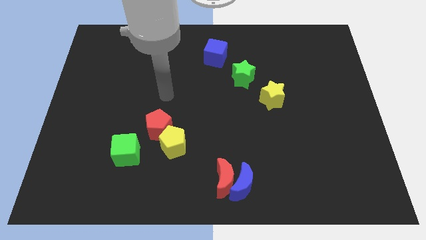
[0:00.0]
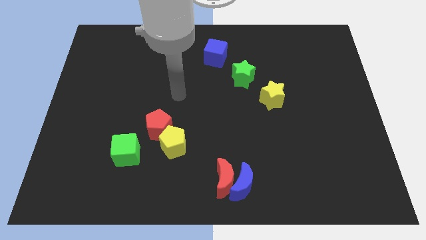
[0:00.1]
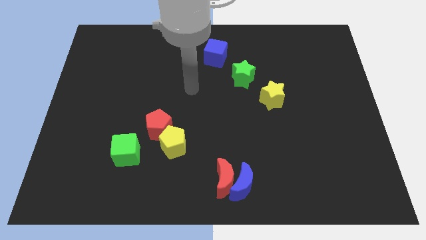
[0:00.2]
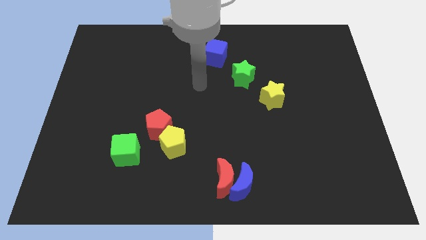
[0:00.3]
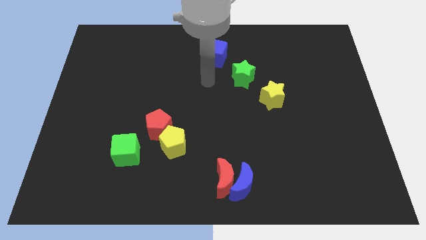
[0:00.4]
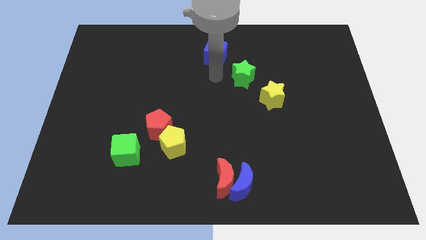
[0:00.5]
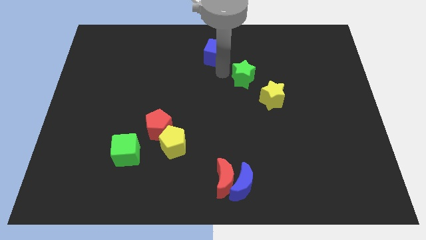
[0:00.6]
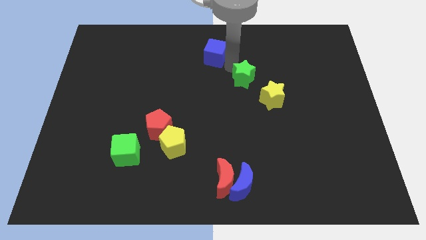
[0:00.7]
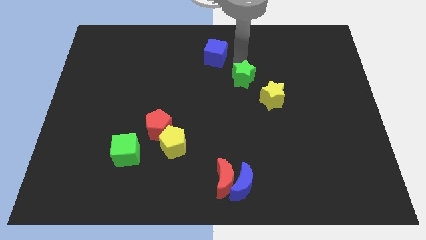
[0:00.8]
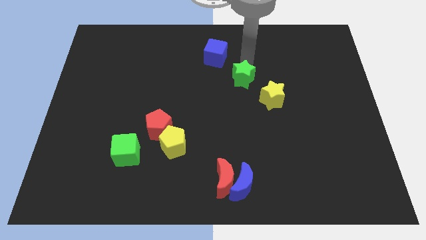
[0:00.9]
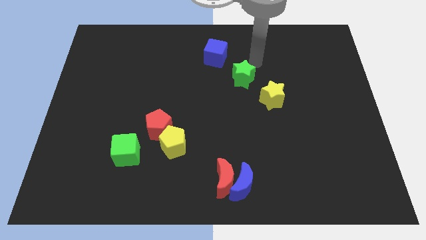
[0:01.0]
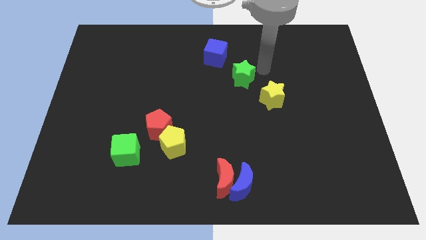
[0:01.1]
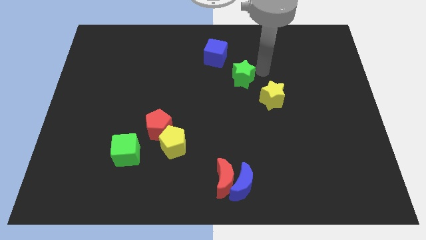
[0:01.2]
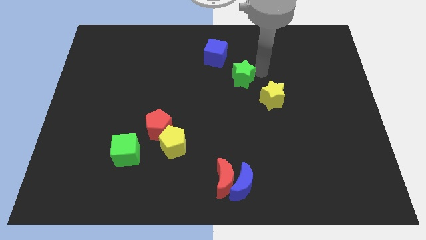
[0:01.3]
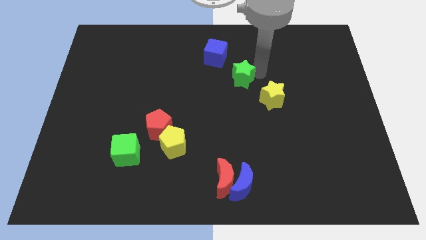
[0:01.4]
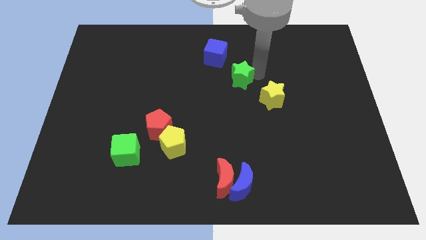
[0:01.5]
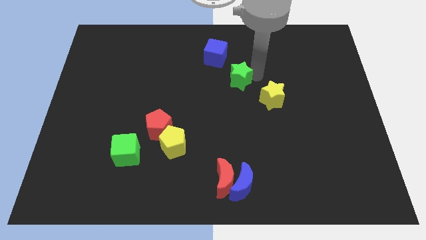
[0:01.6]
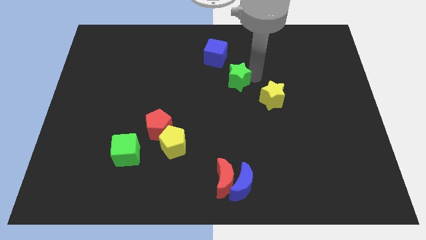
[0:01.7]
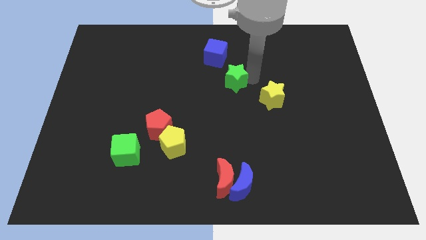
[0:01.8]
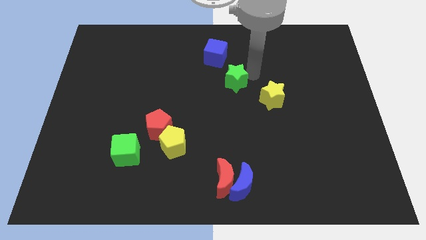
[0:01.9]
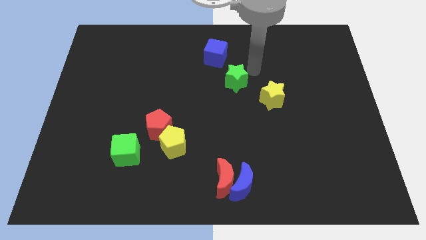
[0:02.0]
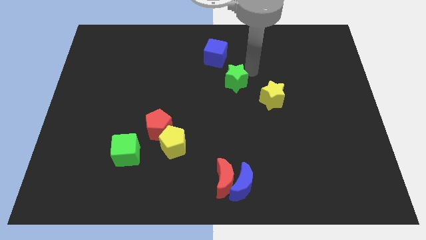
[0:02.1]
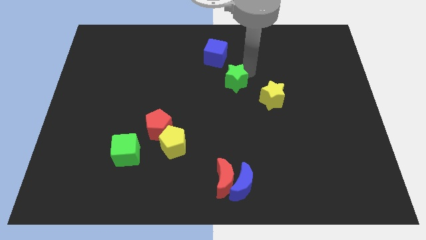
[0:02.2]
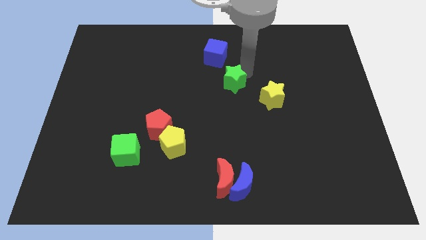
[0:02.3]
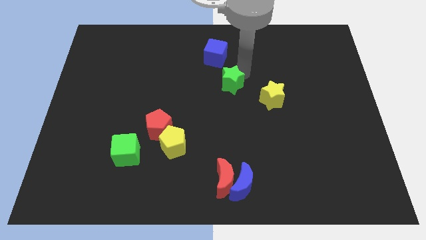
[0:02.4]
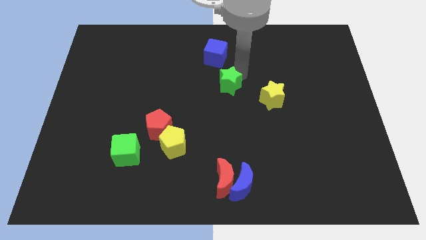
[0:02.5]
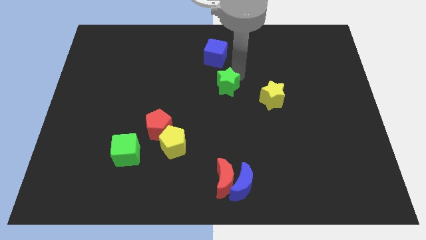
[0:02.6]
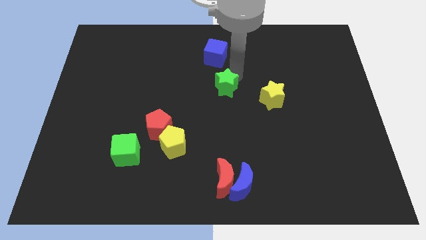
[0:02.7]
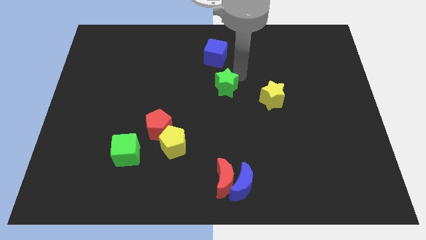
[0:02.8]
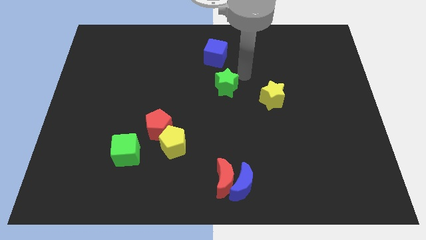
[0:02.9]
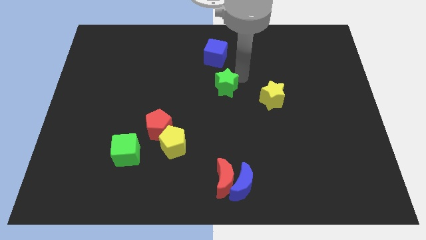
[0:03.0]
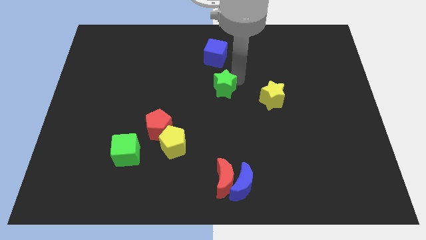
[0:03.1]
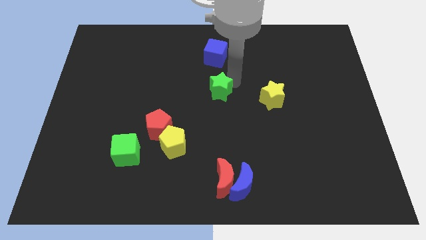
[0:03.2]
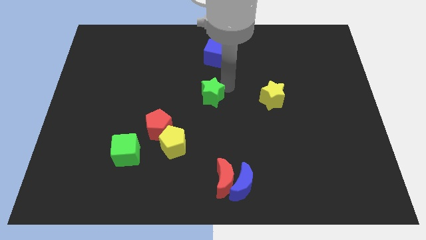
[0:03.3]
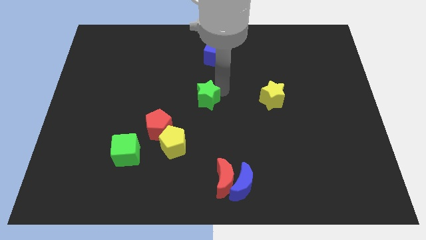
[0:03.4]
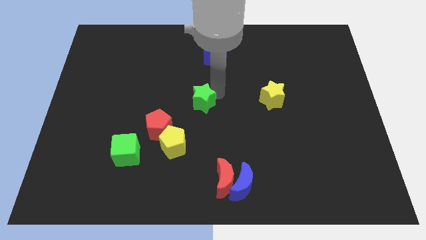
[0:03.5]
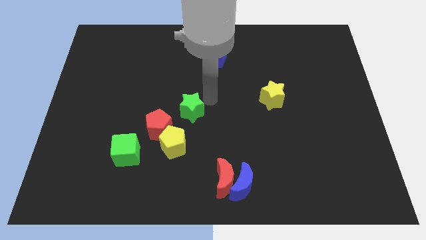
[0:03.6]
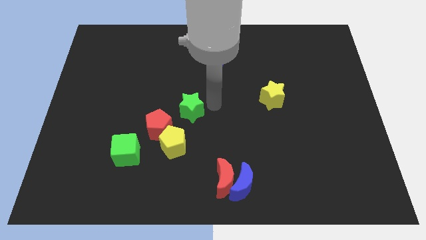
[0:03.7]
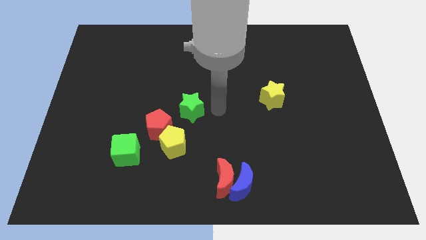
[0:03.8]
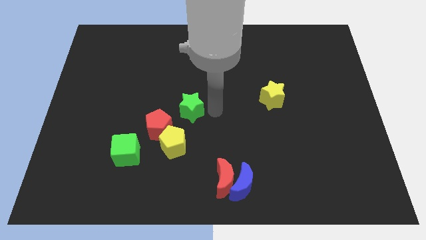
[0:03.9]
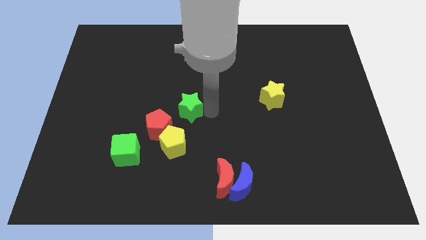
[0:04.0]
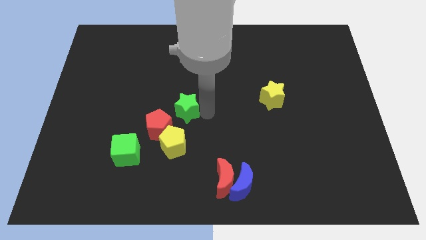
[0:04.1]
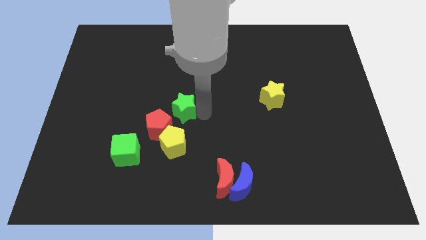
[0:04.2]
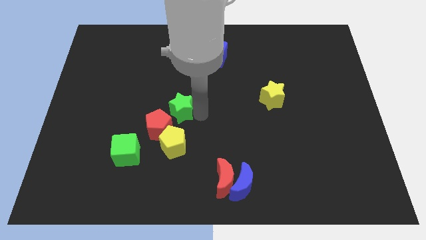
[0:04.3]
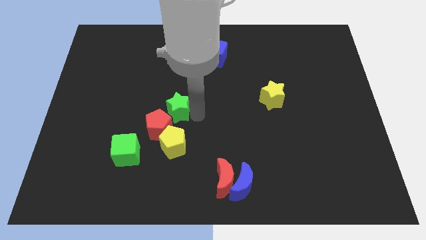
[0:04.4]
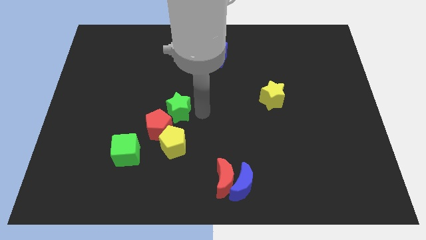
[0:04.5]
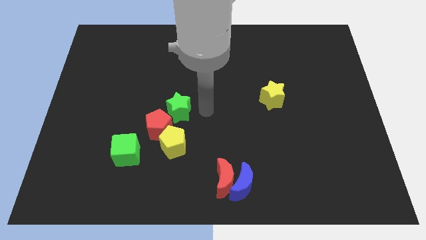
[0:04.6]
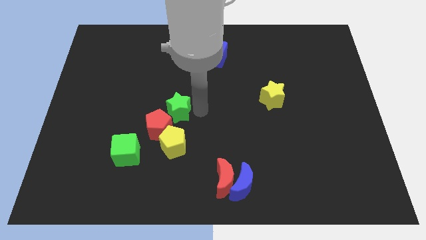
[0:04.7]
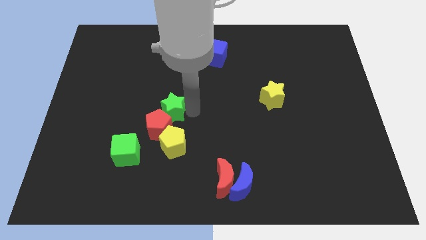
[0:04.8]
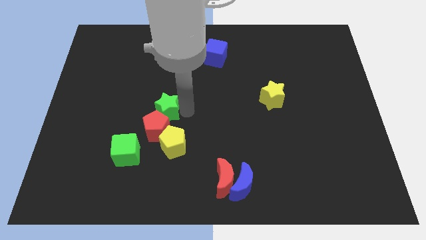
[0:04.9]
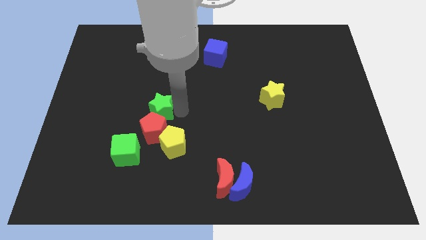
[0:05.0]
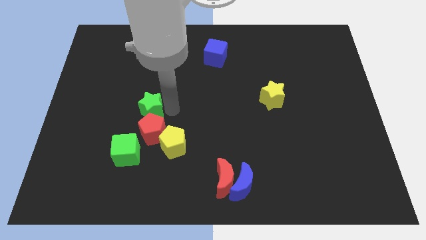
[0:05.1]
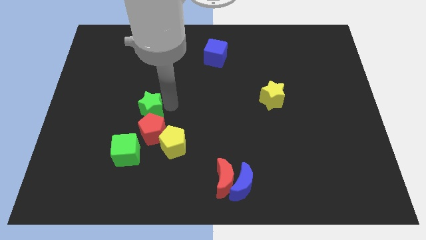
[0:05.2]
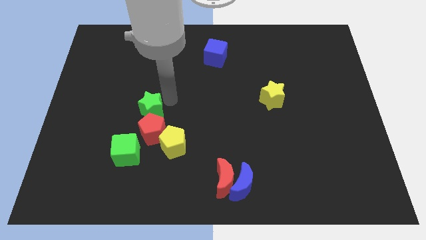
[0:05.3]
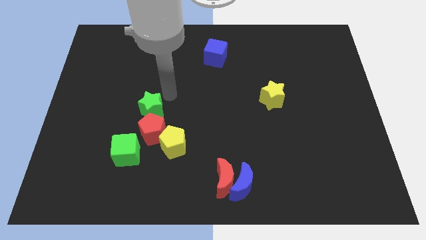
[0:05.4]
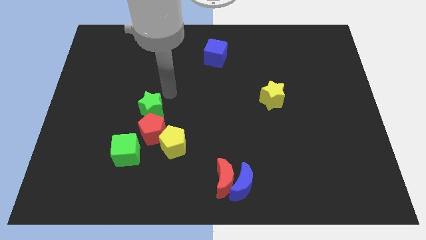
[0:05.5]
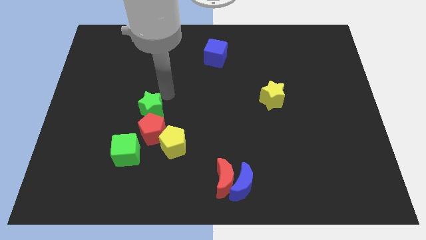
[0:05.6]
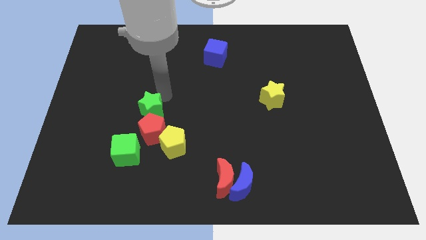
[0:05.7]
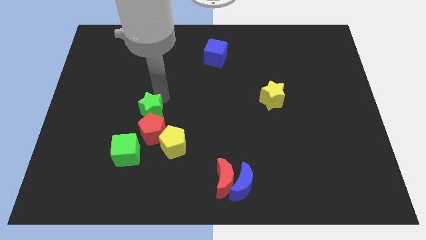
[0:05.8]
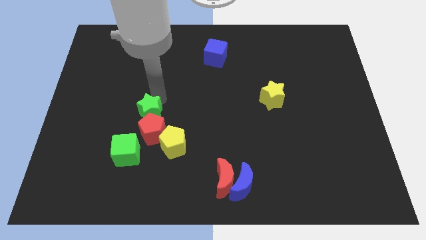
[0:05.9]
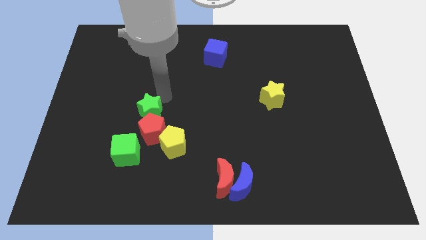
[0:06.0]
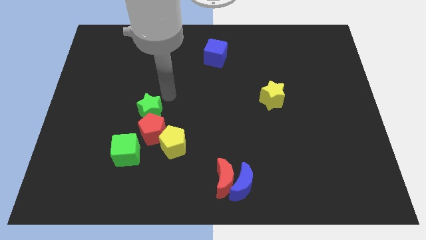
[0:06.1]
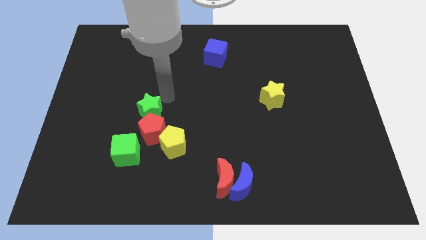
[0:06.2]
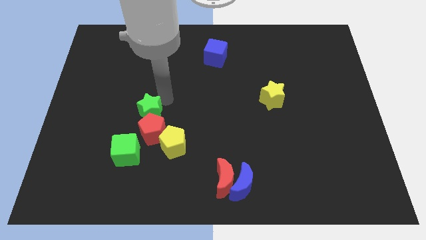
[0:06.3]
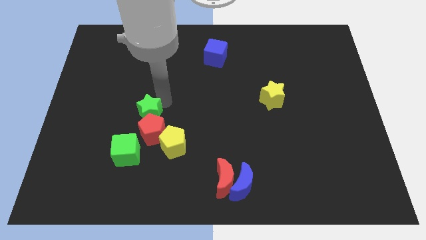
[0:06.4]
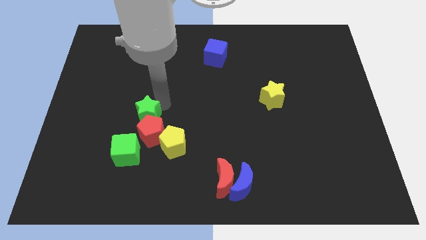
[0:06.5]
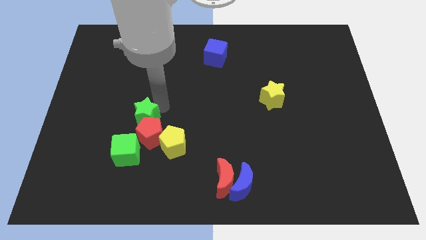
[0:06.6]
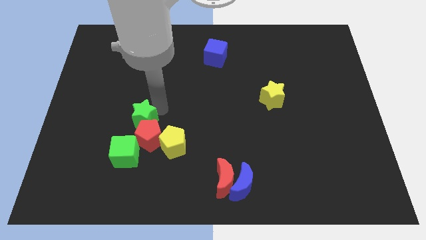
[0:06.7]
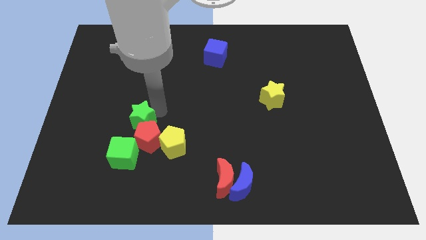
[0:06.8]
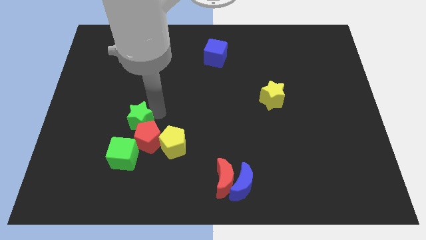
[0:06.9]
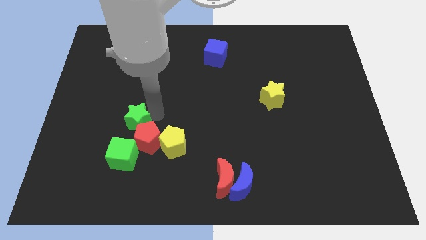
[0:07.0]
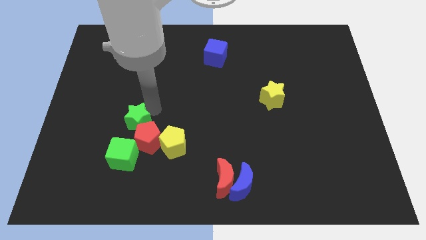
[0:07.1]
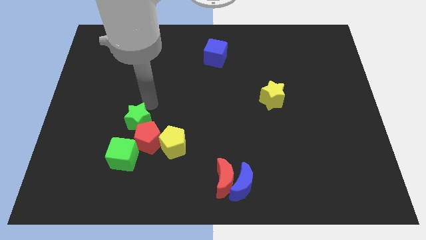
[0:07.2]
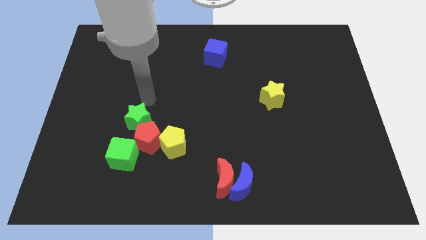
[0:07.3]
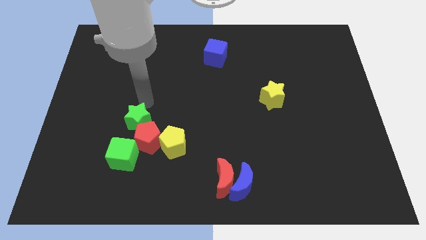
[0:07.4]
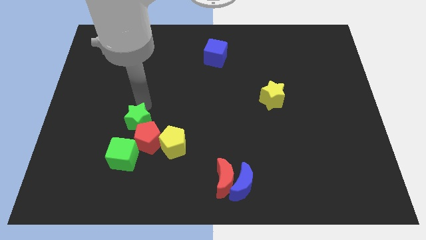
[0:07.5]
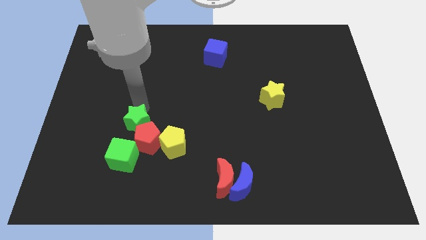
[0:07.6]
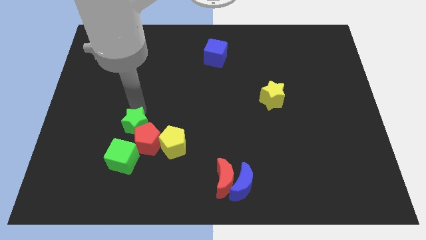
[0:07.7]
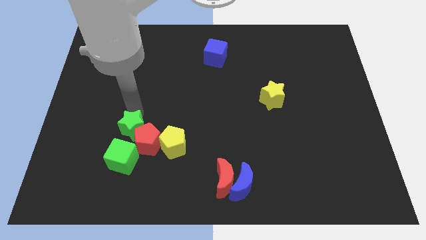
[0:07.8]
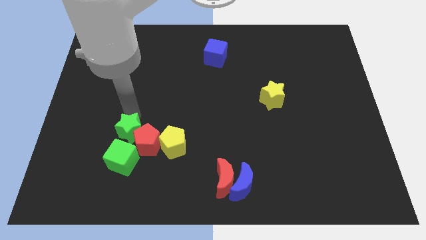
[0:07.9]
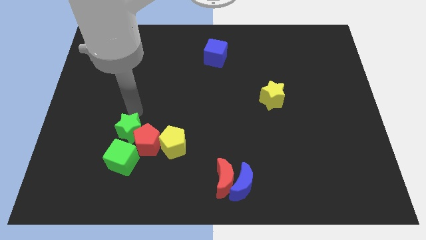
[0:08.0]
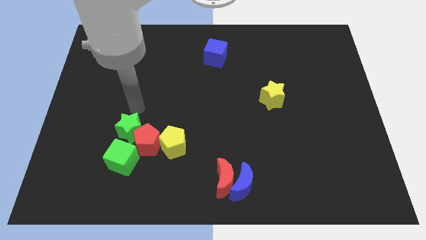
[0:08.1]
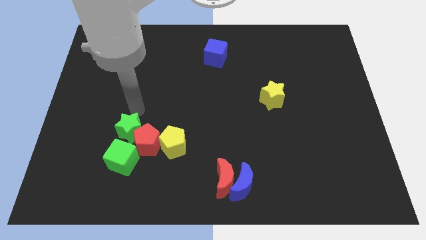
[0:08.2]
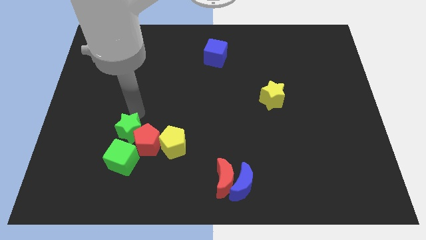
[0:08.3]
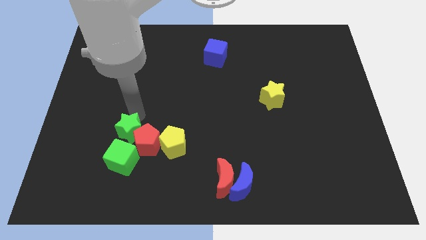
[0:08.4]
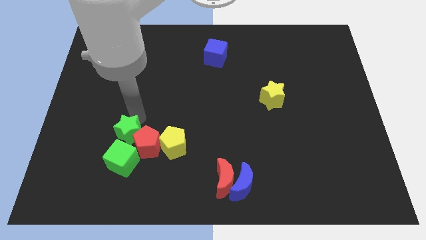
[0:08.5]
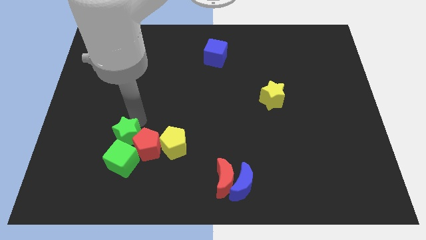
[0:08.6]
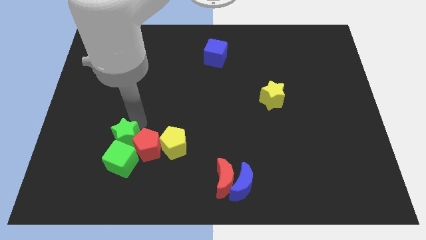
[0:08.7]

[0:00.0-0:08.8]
move the green star to the green cube
